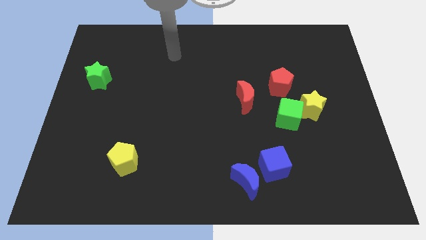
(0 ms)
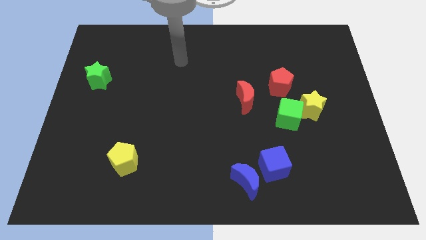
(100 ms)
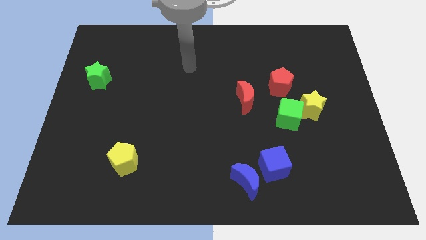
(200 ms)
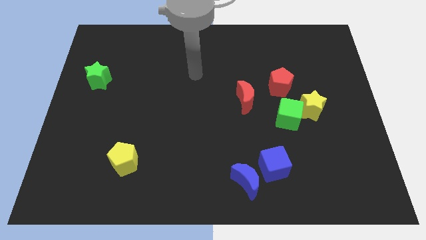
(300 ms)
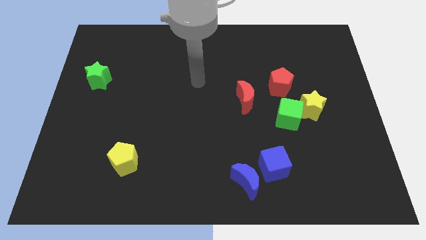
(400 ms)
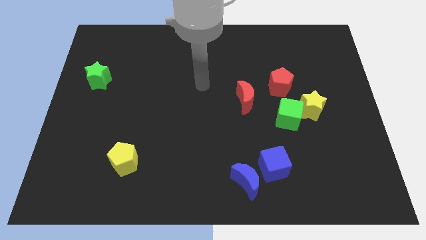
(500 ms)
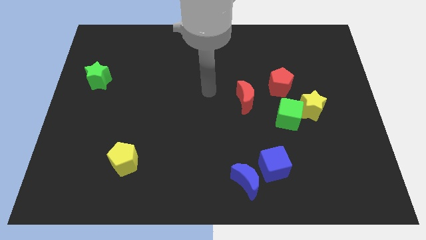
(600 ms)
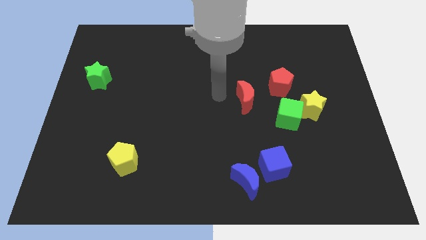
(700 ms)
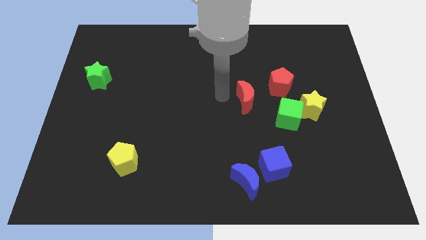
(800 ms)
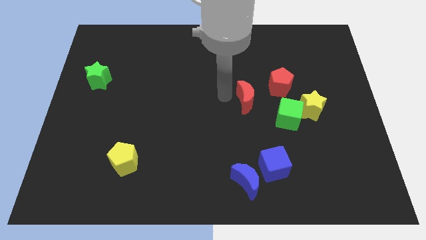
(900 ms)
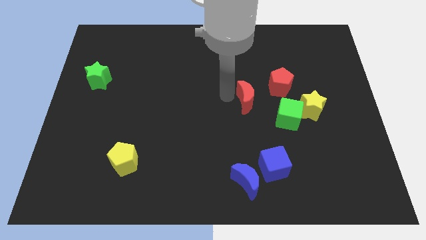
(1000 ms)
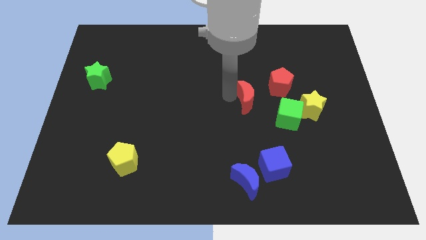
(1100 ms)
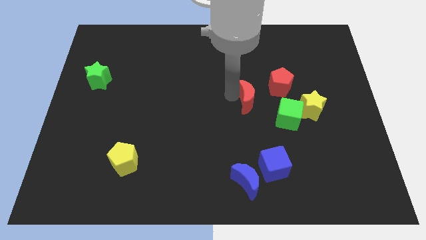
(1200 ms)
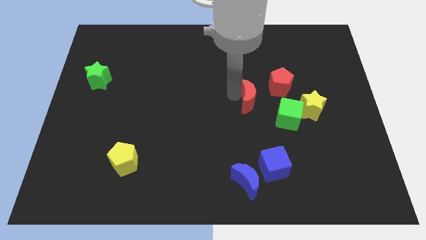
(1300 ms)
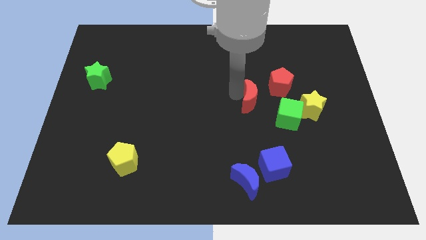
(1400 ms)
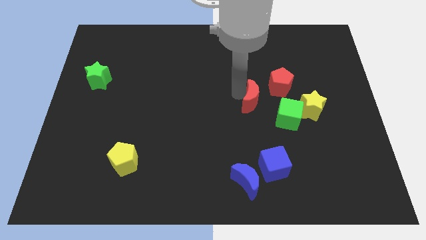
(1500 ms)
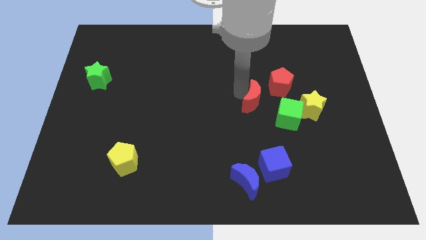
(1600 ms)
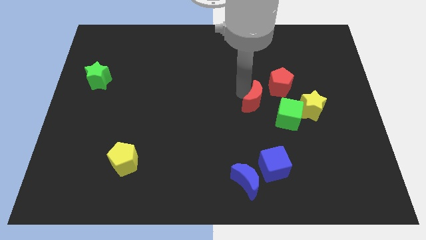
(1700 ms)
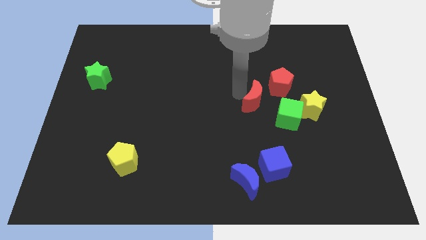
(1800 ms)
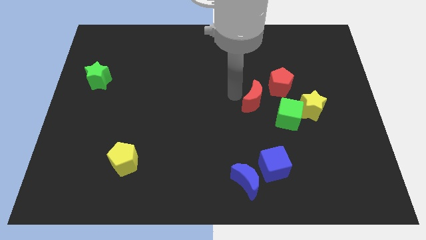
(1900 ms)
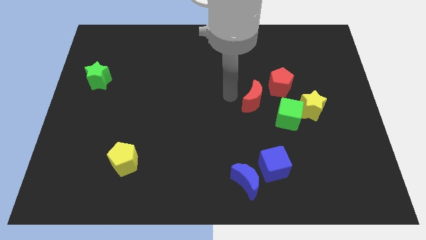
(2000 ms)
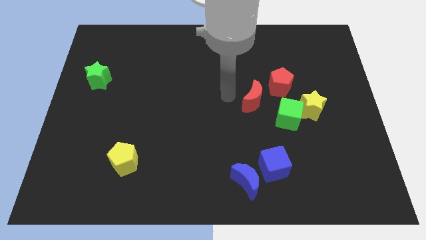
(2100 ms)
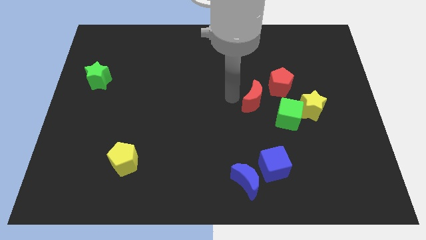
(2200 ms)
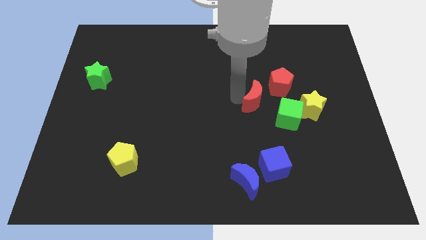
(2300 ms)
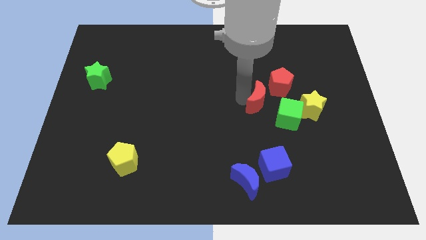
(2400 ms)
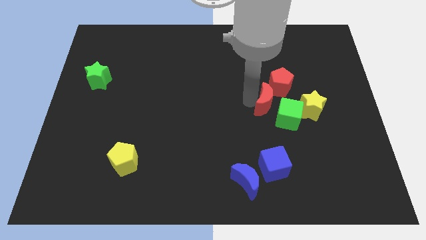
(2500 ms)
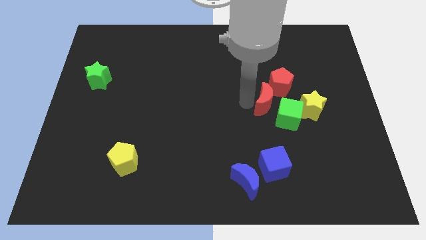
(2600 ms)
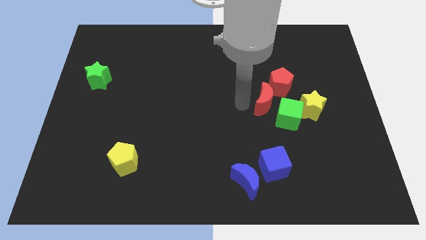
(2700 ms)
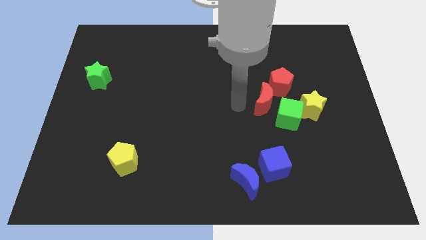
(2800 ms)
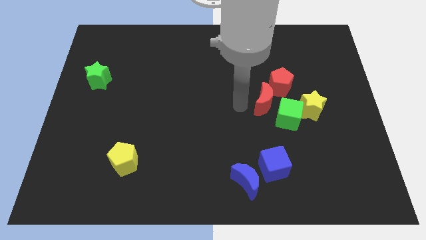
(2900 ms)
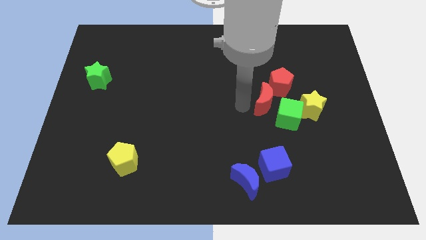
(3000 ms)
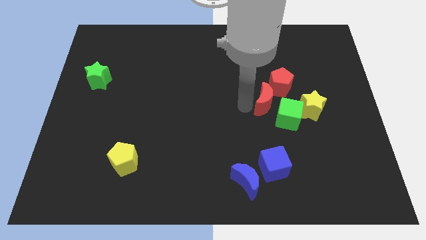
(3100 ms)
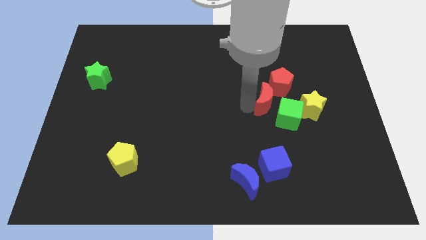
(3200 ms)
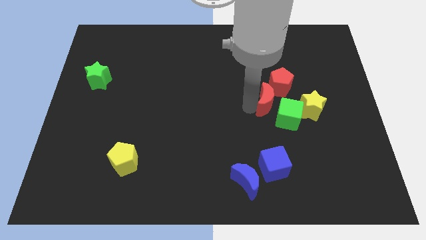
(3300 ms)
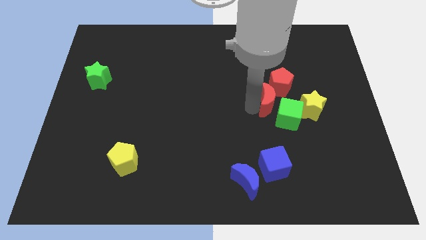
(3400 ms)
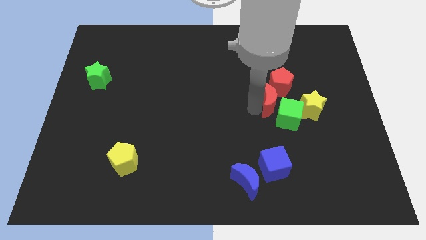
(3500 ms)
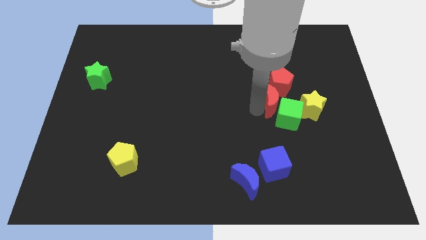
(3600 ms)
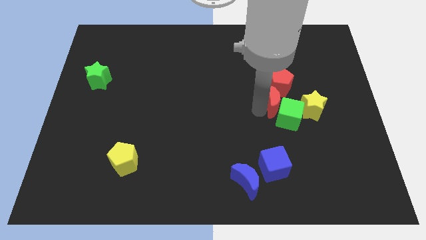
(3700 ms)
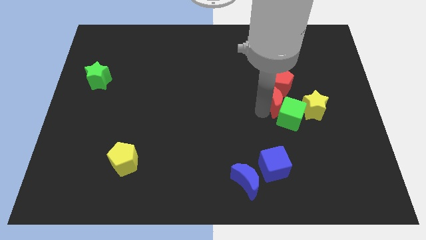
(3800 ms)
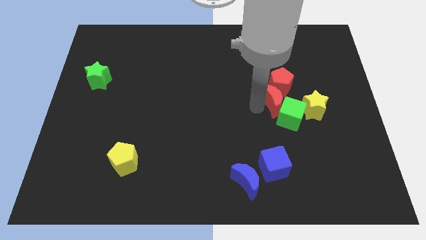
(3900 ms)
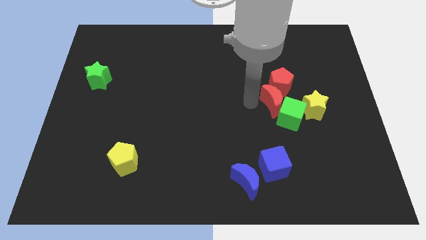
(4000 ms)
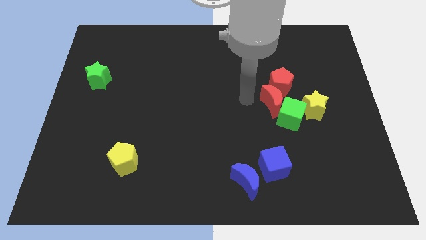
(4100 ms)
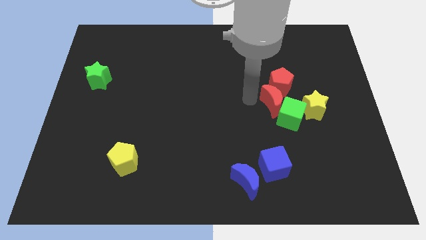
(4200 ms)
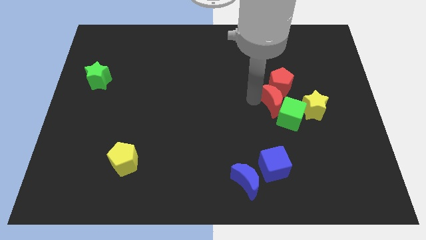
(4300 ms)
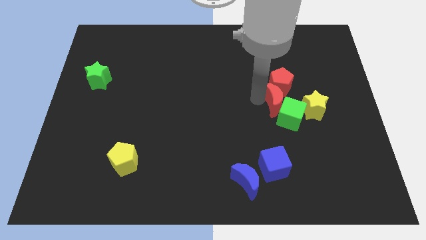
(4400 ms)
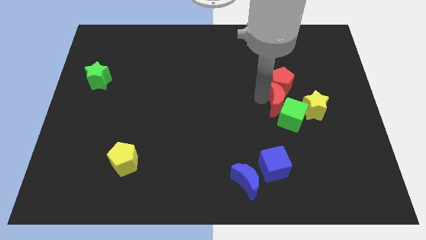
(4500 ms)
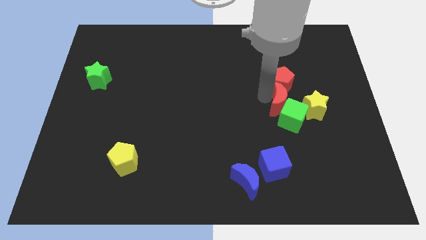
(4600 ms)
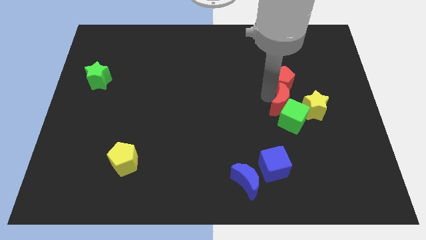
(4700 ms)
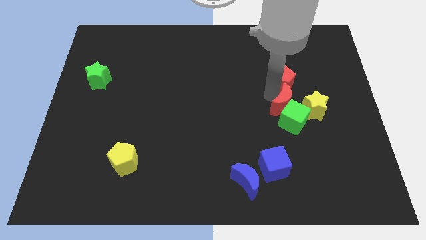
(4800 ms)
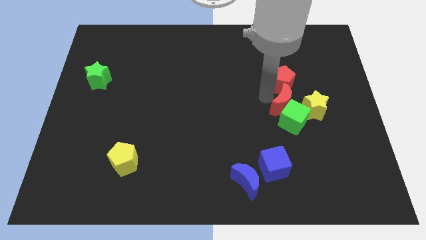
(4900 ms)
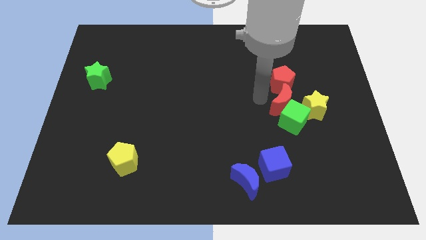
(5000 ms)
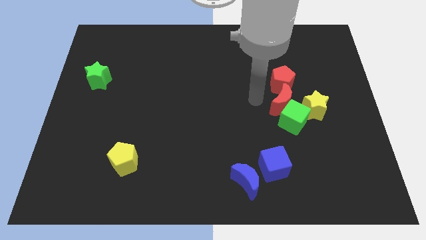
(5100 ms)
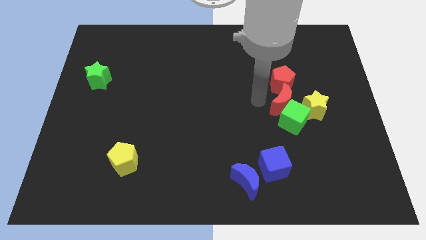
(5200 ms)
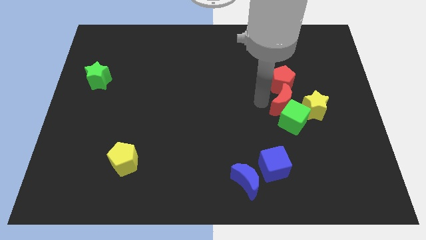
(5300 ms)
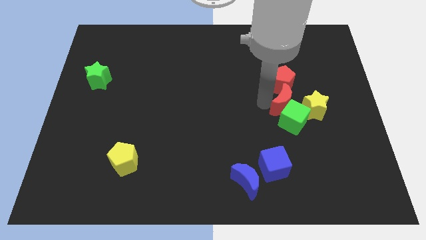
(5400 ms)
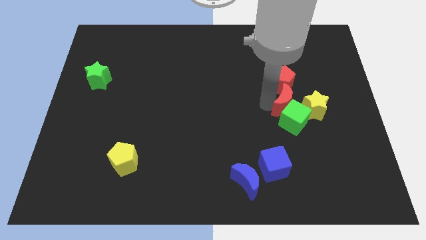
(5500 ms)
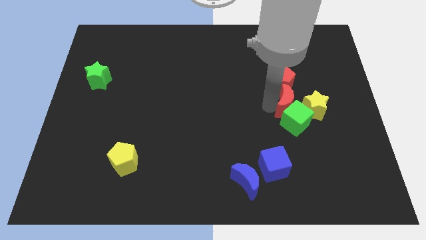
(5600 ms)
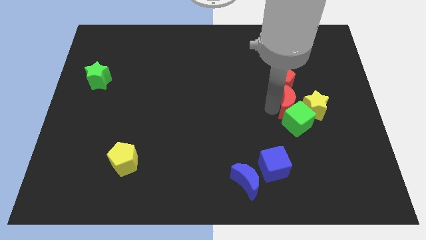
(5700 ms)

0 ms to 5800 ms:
move the red moon next to the yellow star

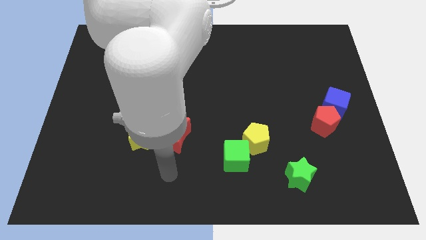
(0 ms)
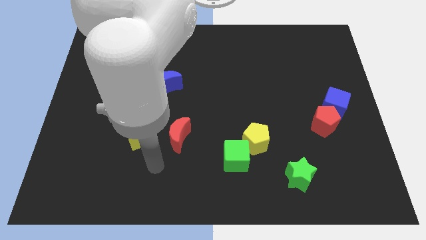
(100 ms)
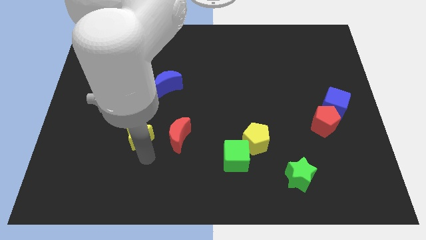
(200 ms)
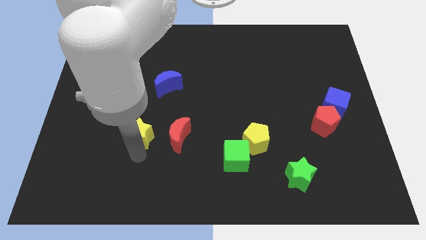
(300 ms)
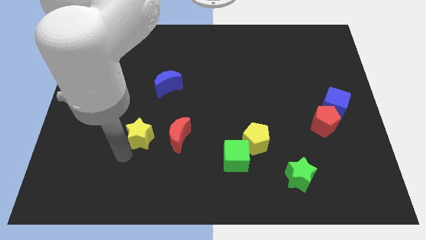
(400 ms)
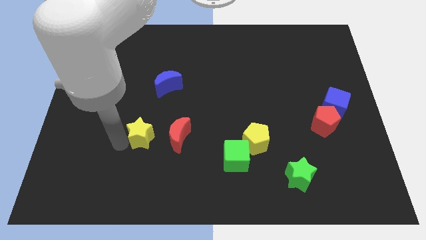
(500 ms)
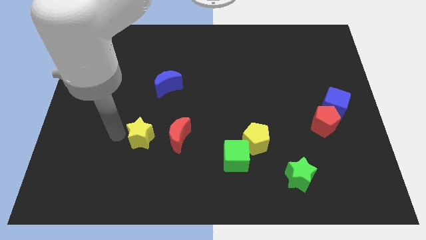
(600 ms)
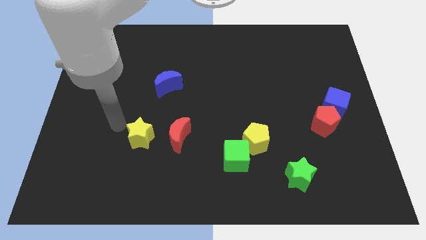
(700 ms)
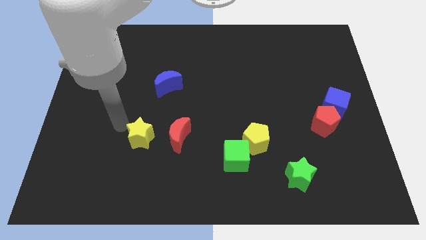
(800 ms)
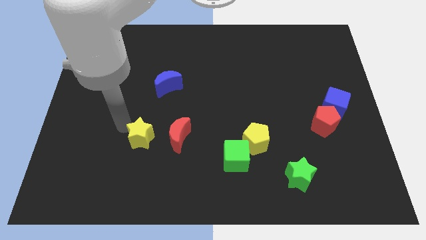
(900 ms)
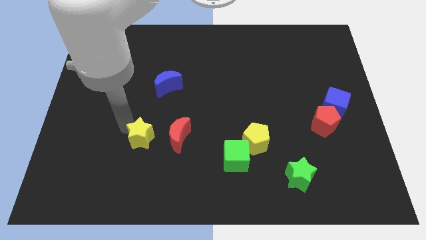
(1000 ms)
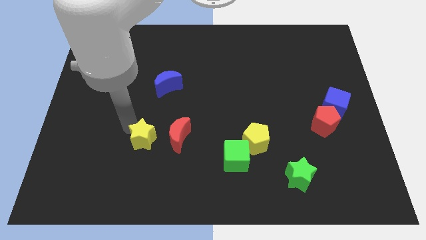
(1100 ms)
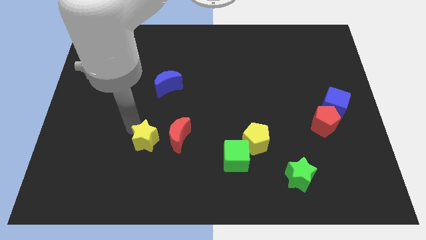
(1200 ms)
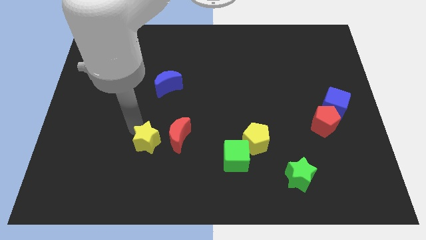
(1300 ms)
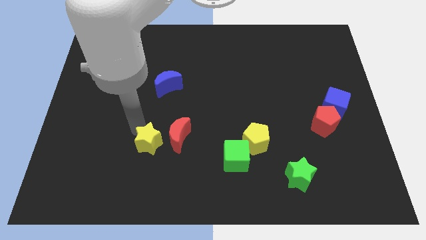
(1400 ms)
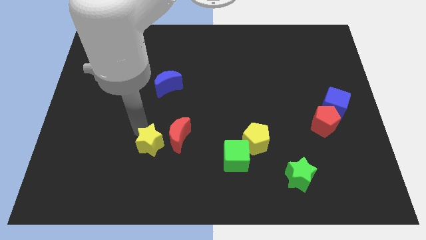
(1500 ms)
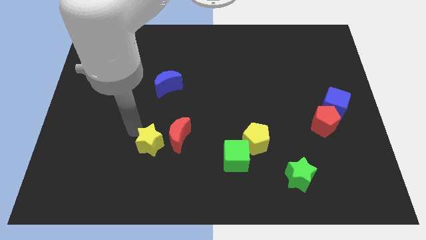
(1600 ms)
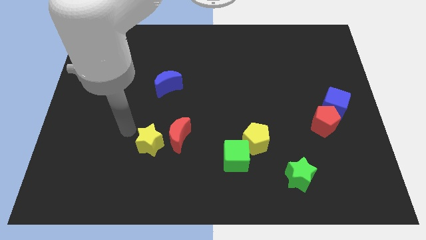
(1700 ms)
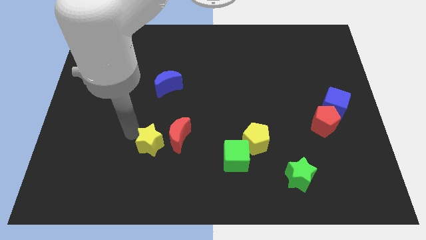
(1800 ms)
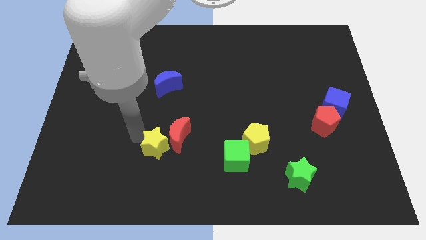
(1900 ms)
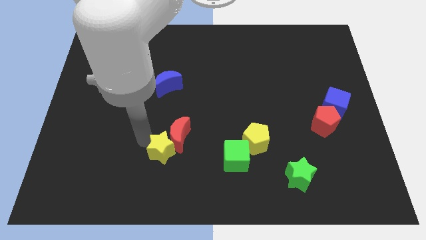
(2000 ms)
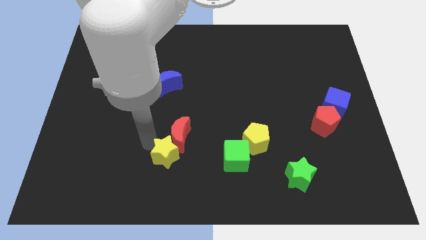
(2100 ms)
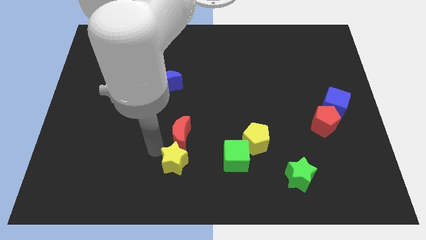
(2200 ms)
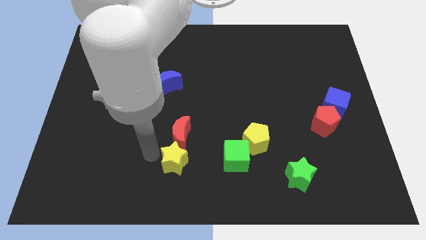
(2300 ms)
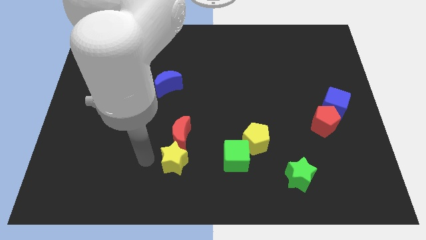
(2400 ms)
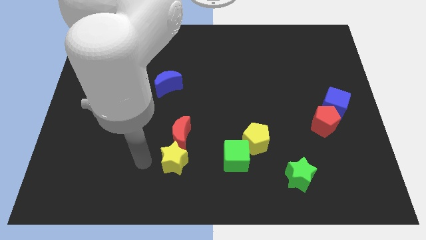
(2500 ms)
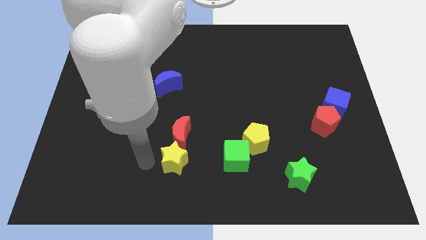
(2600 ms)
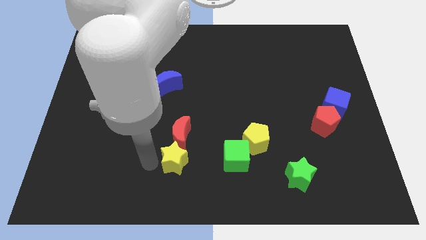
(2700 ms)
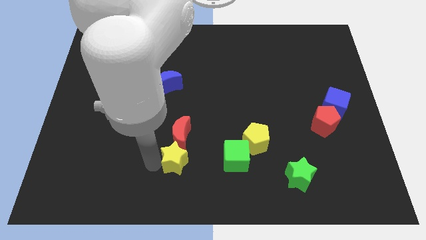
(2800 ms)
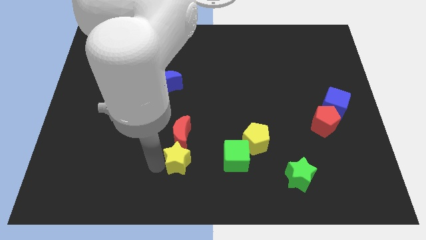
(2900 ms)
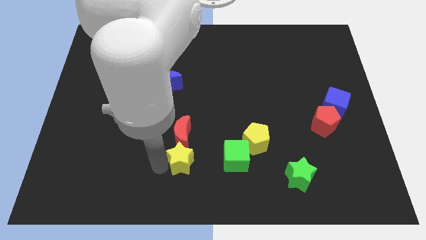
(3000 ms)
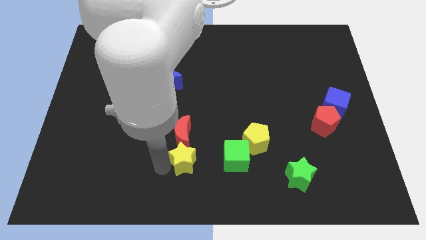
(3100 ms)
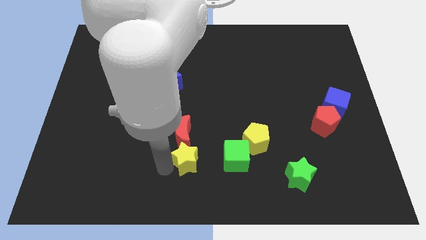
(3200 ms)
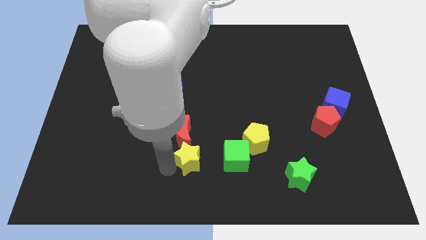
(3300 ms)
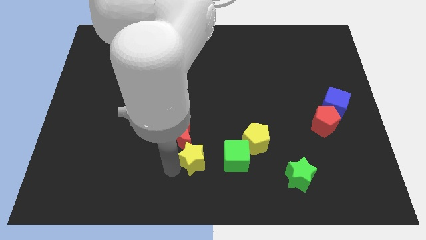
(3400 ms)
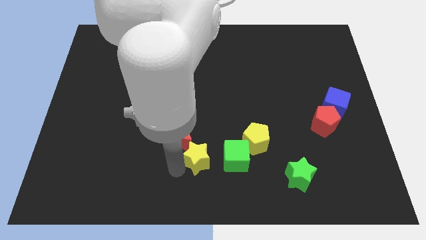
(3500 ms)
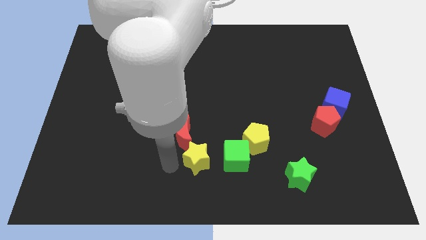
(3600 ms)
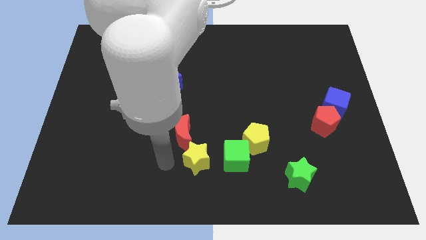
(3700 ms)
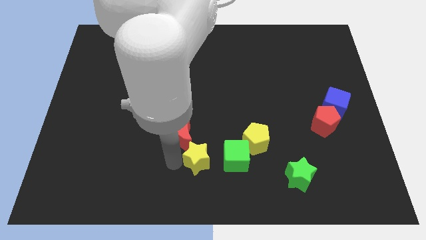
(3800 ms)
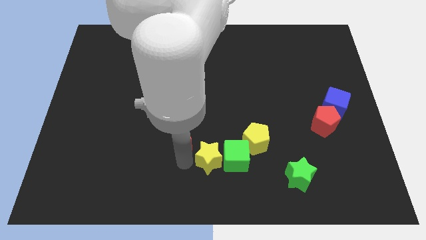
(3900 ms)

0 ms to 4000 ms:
put the yellow star towards the green cube
